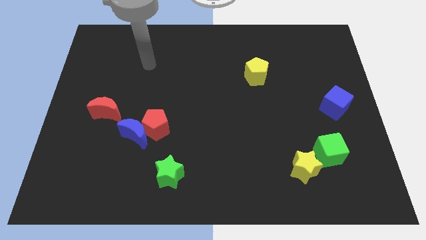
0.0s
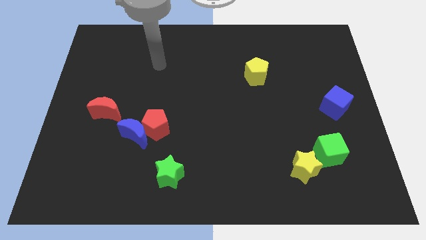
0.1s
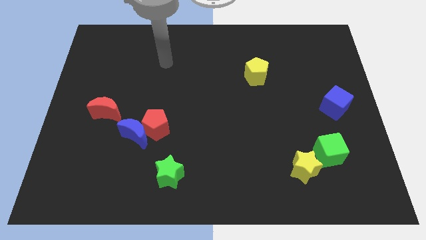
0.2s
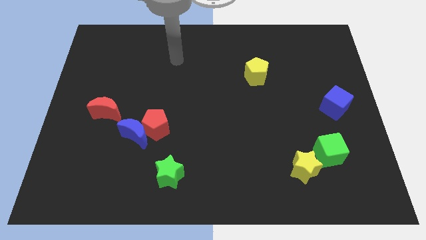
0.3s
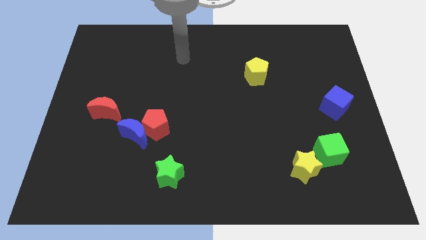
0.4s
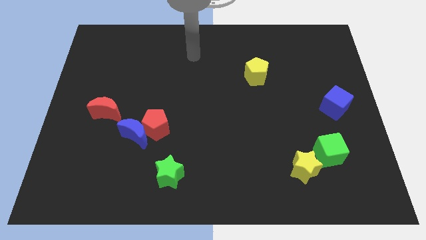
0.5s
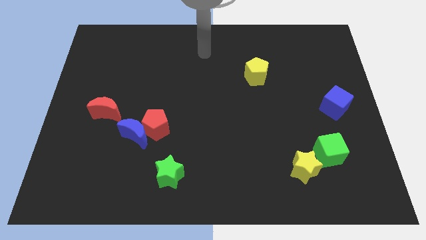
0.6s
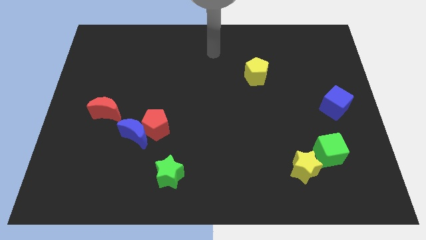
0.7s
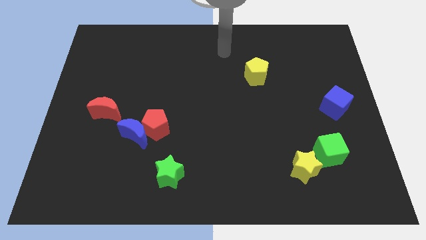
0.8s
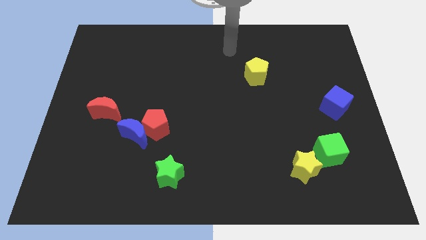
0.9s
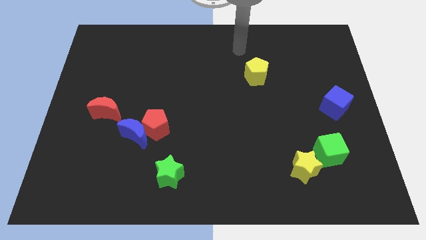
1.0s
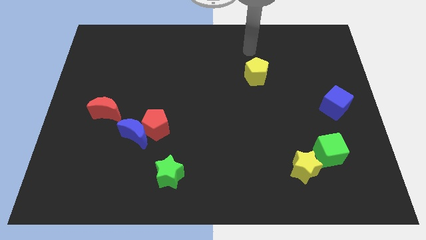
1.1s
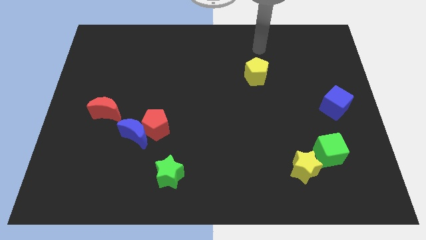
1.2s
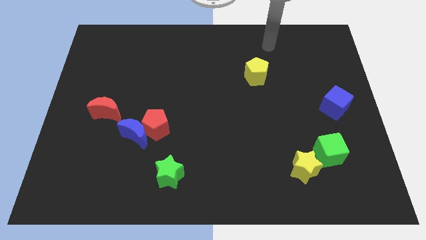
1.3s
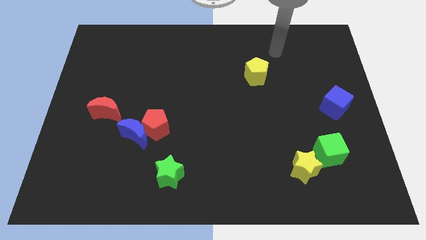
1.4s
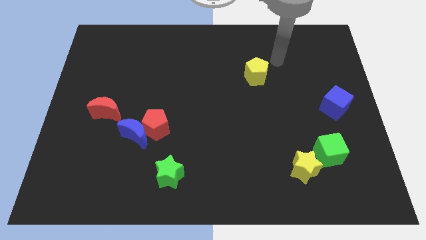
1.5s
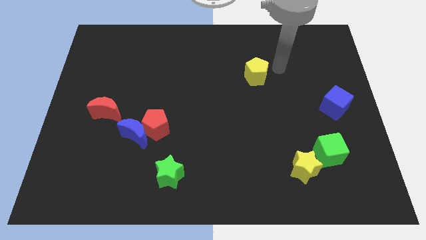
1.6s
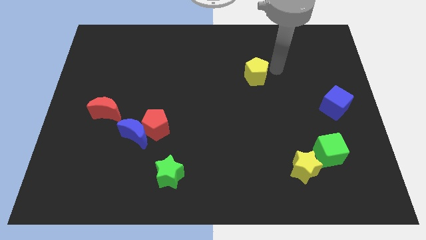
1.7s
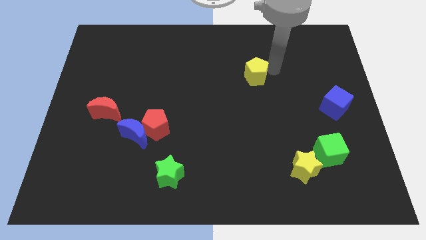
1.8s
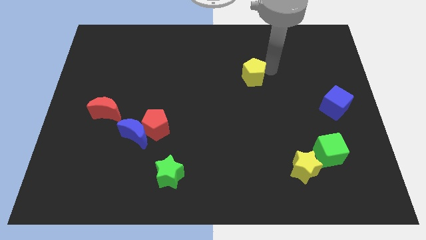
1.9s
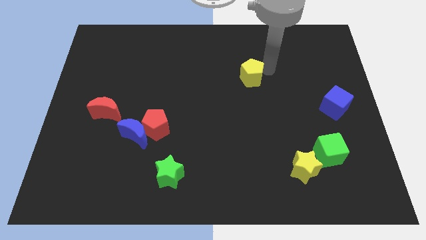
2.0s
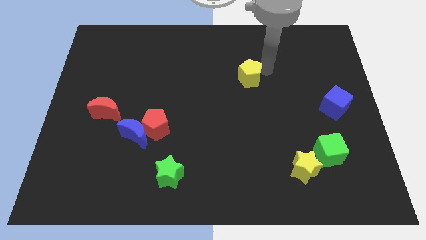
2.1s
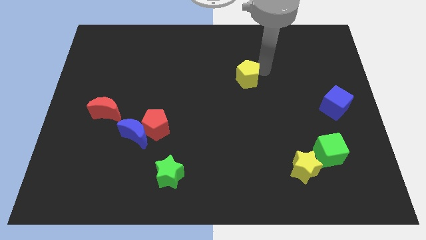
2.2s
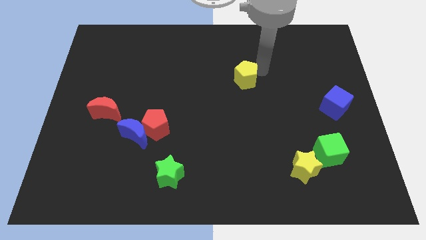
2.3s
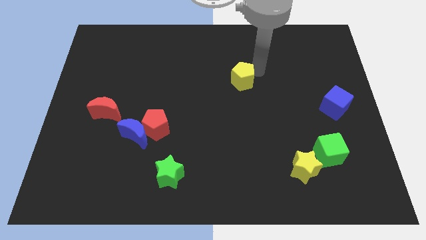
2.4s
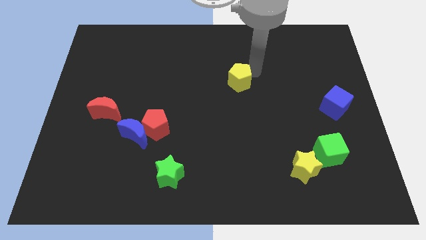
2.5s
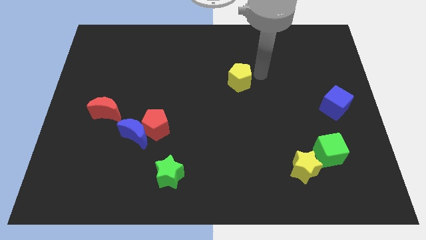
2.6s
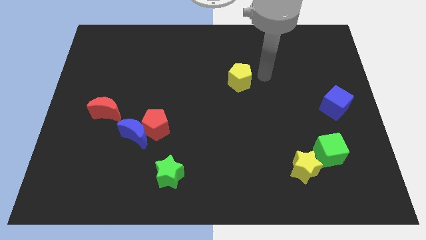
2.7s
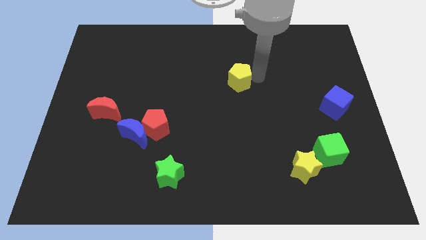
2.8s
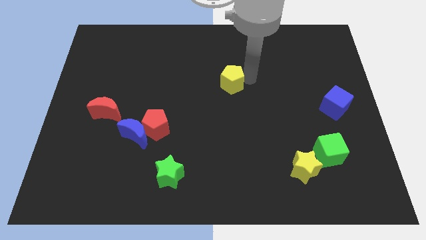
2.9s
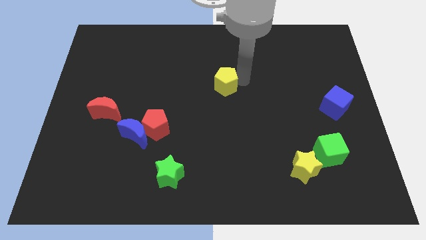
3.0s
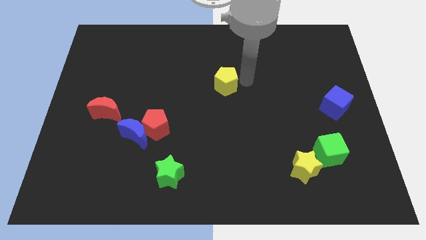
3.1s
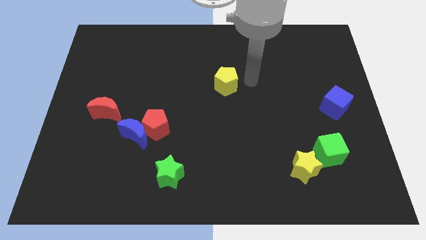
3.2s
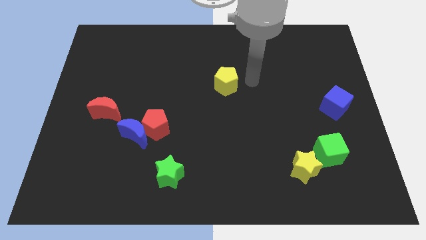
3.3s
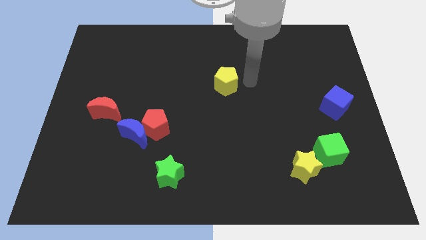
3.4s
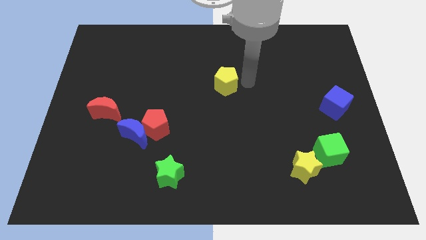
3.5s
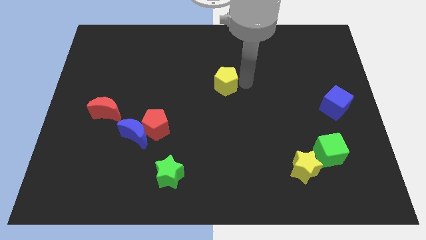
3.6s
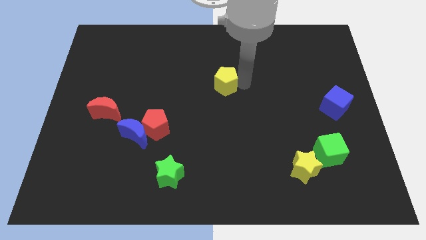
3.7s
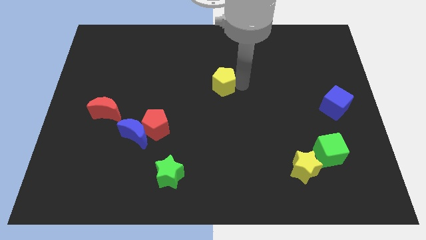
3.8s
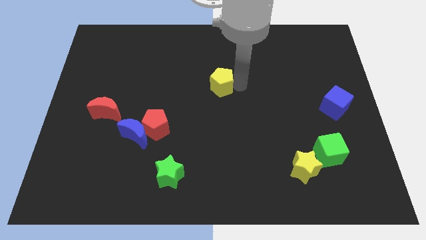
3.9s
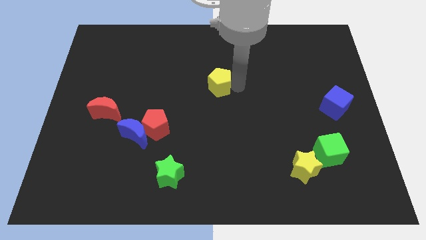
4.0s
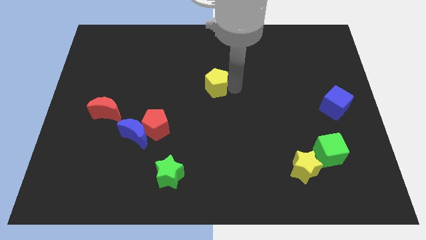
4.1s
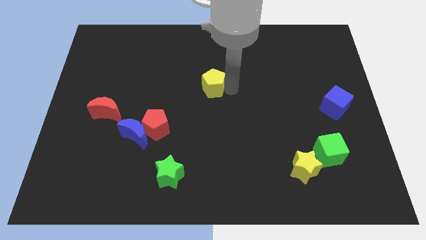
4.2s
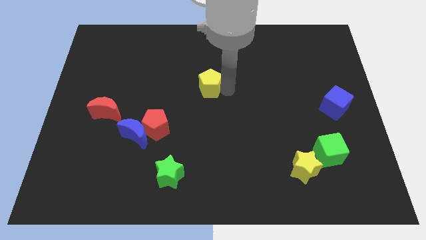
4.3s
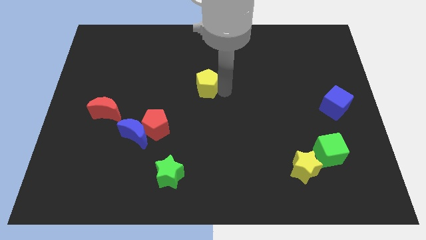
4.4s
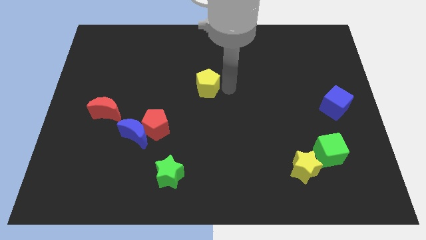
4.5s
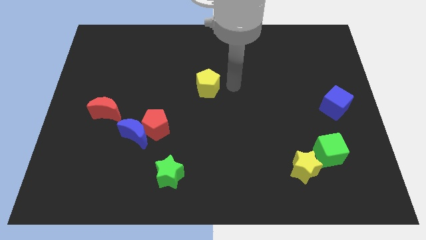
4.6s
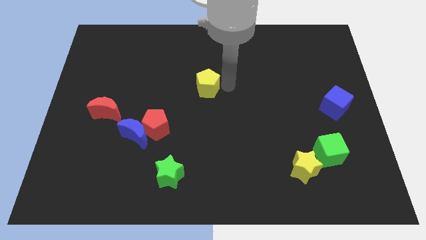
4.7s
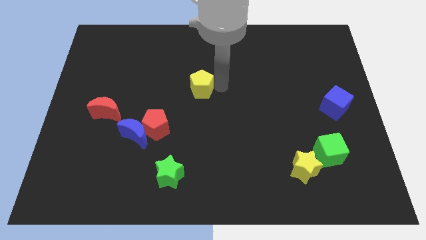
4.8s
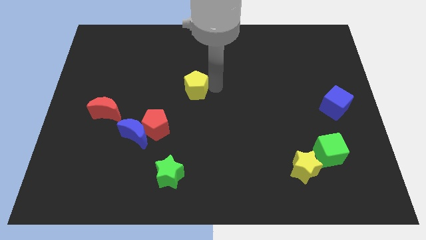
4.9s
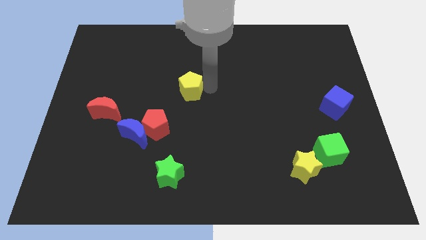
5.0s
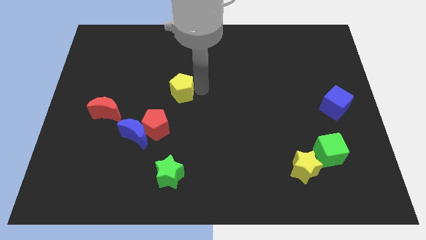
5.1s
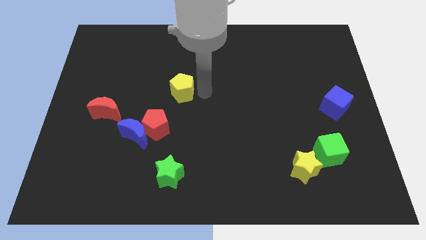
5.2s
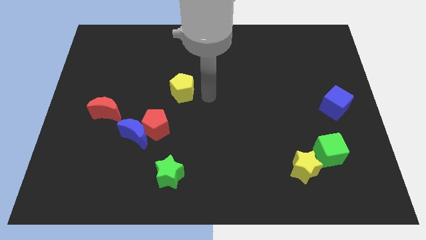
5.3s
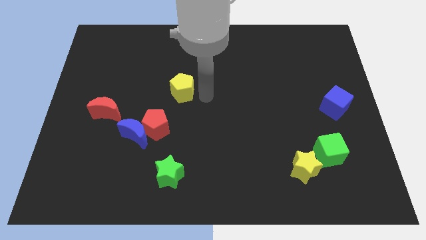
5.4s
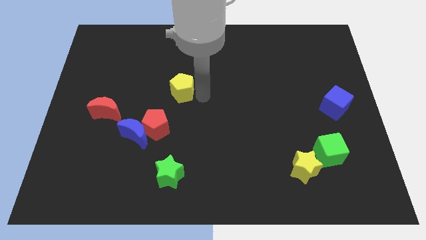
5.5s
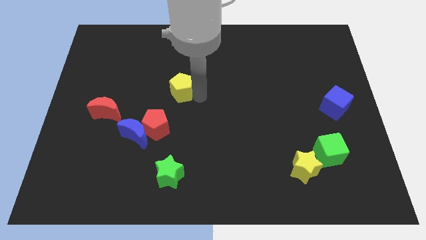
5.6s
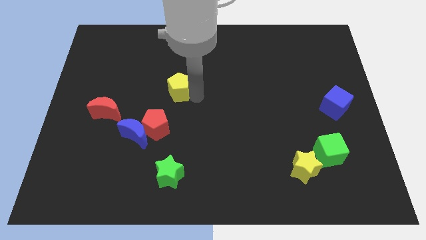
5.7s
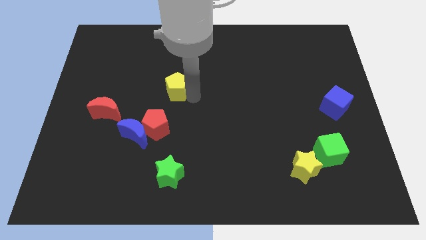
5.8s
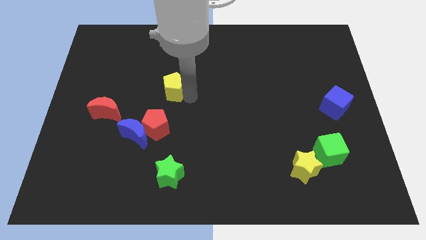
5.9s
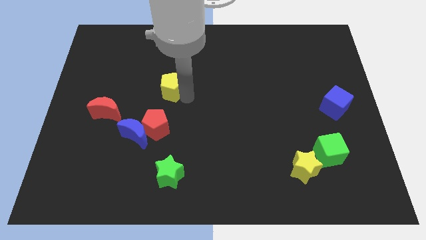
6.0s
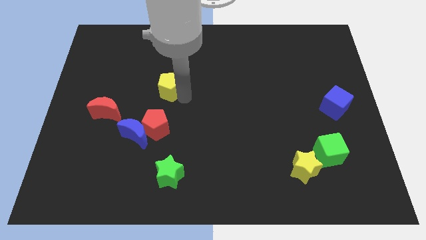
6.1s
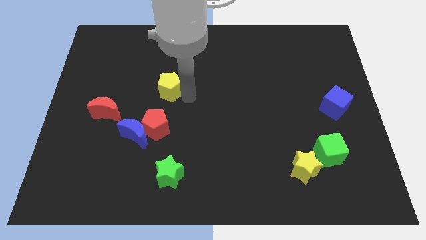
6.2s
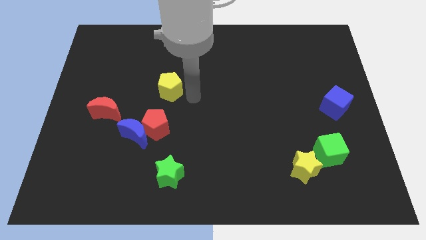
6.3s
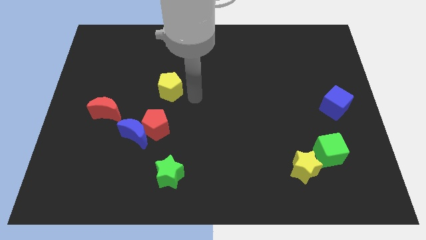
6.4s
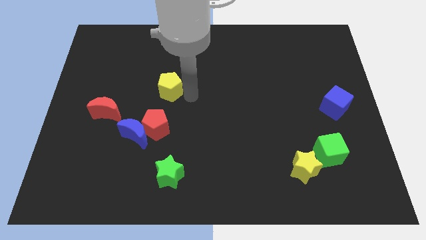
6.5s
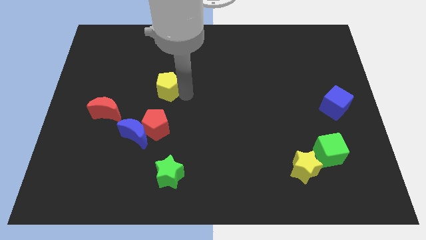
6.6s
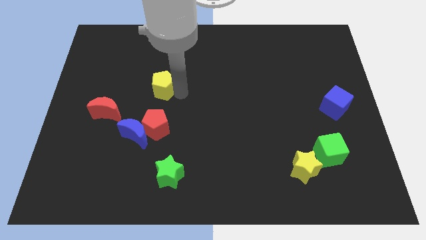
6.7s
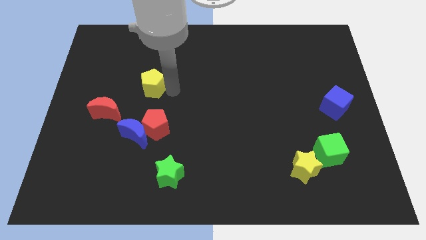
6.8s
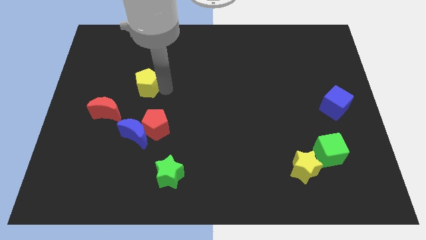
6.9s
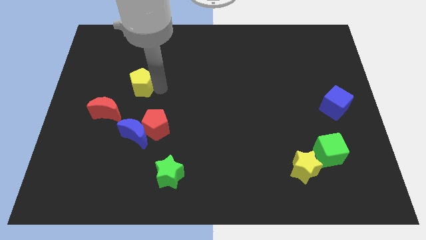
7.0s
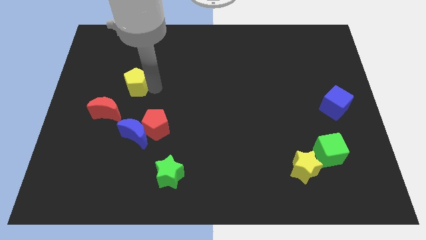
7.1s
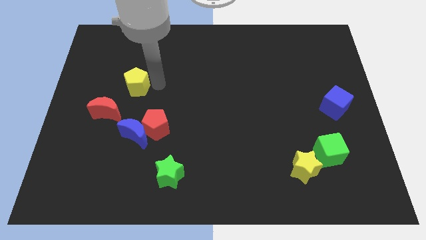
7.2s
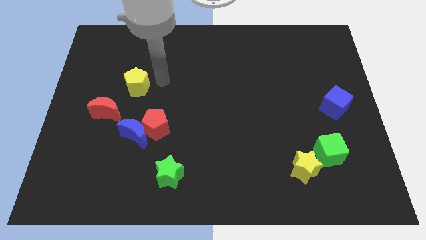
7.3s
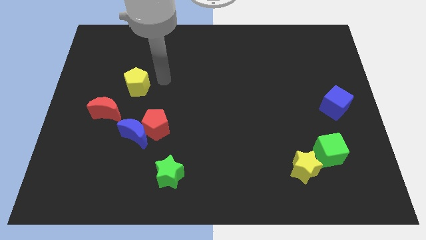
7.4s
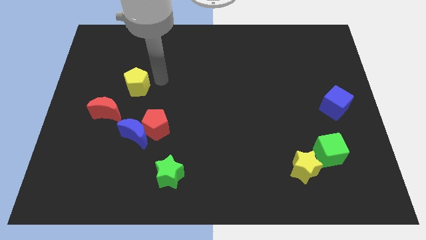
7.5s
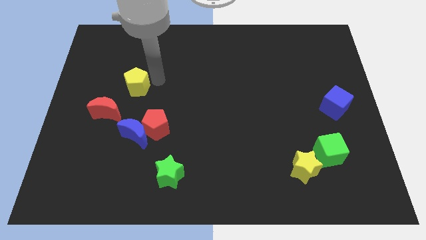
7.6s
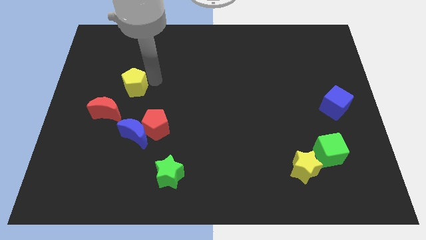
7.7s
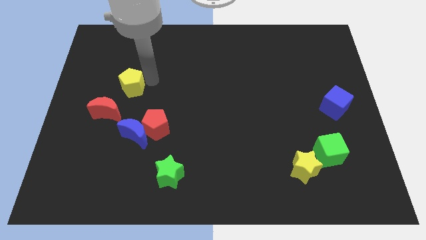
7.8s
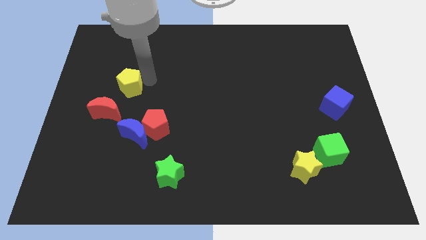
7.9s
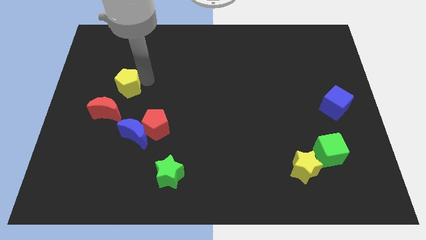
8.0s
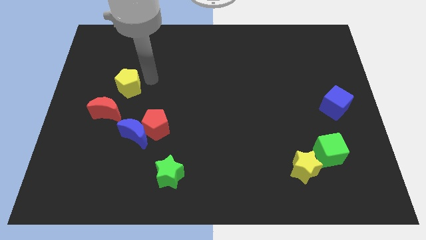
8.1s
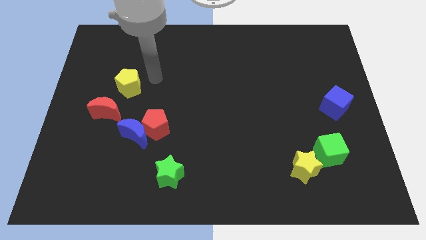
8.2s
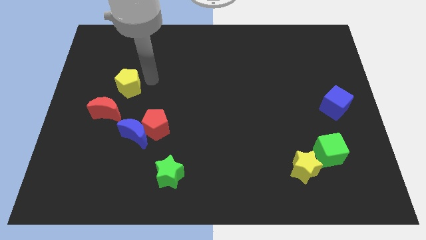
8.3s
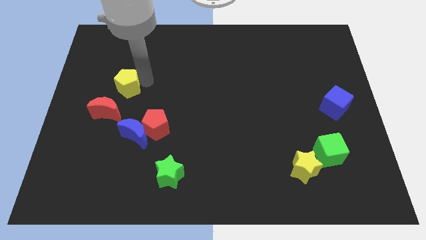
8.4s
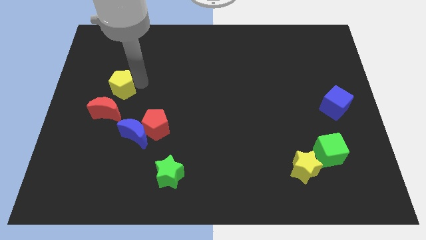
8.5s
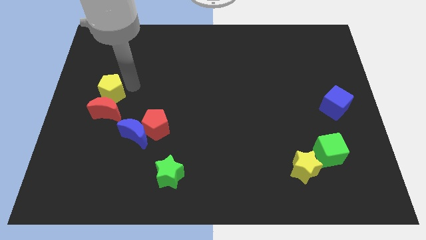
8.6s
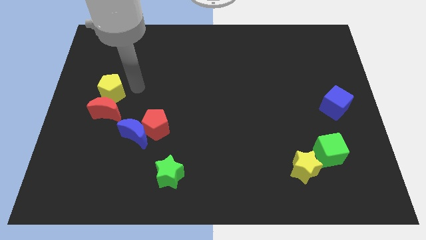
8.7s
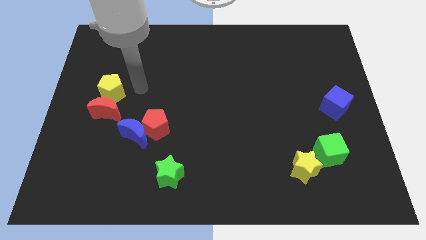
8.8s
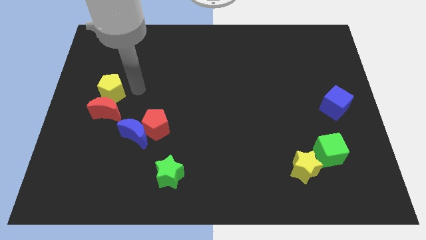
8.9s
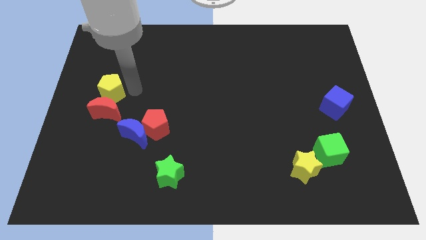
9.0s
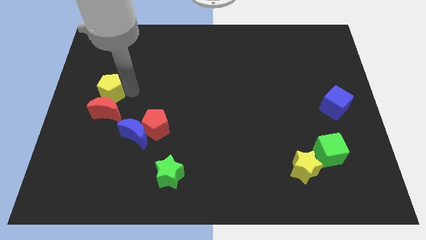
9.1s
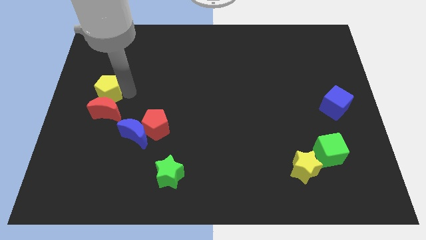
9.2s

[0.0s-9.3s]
put the yellow pentagon to the left side
